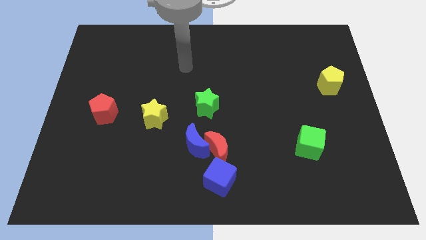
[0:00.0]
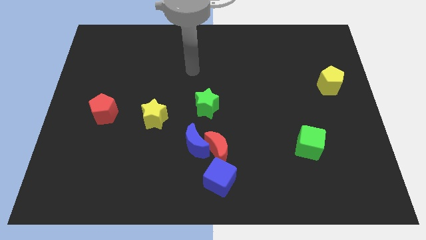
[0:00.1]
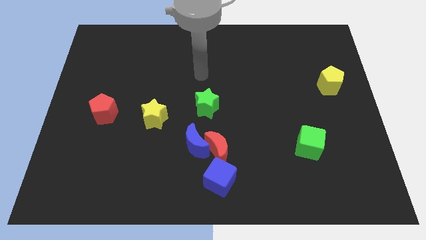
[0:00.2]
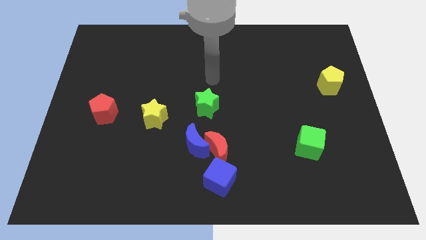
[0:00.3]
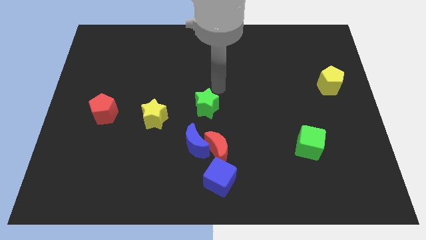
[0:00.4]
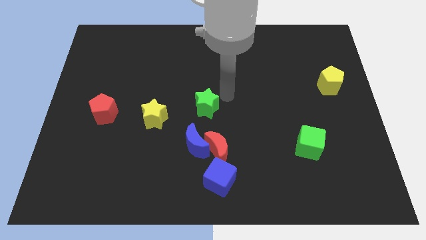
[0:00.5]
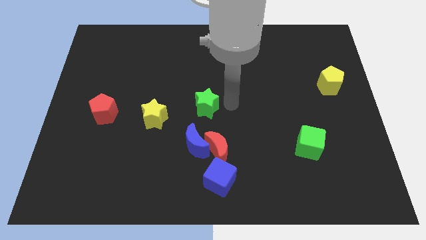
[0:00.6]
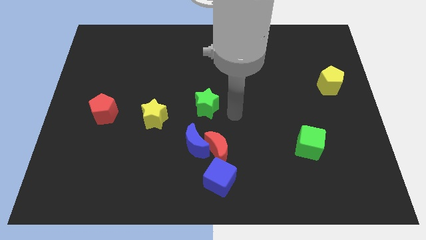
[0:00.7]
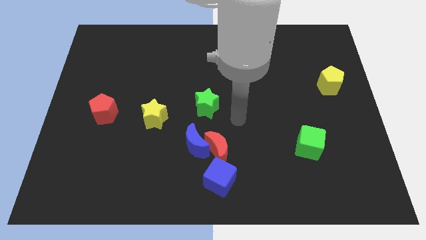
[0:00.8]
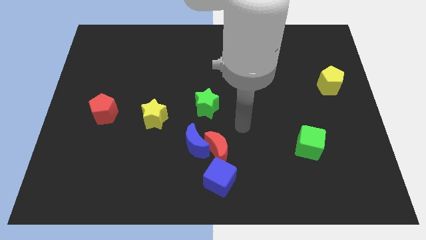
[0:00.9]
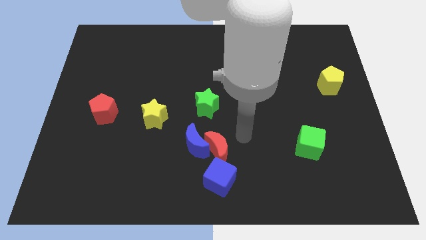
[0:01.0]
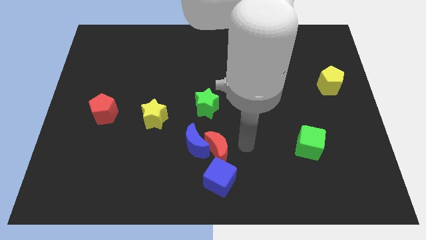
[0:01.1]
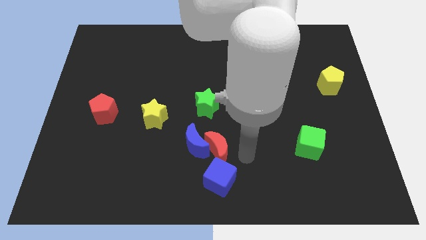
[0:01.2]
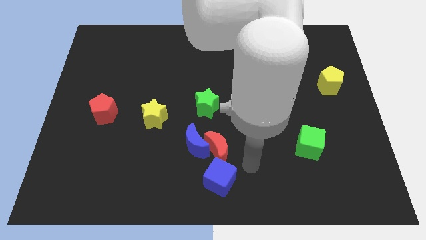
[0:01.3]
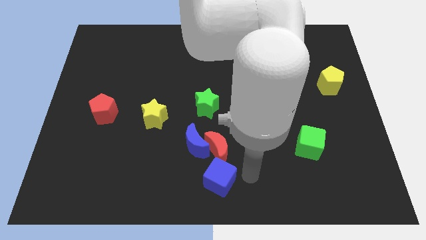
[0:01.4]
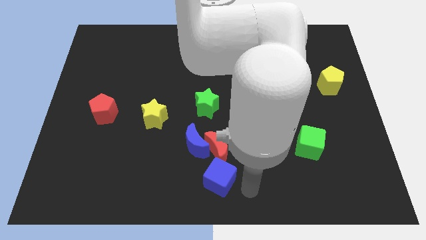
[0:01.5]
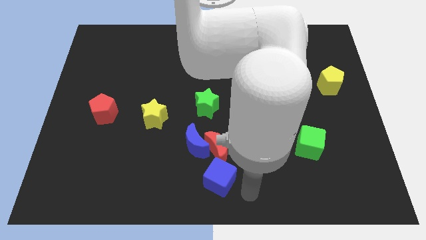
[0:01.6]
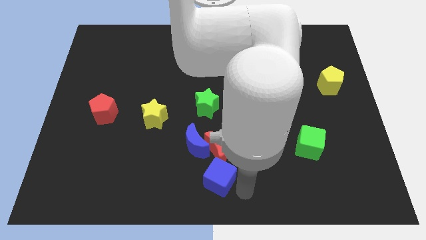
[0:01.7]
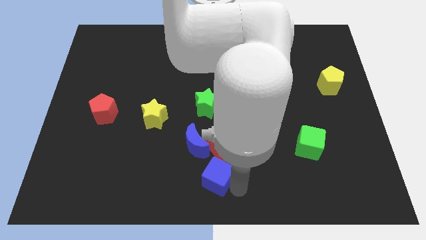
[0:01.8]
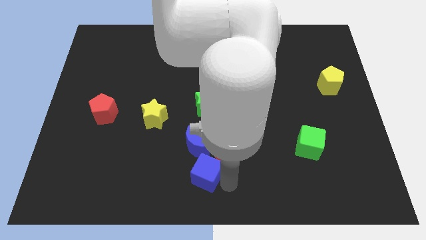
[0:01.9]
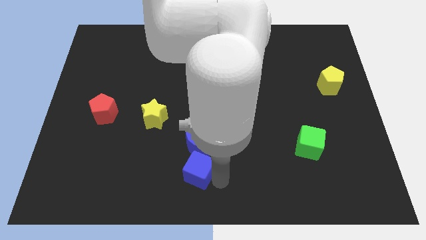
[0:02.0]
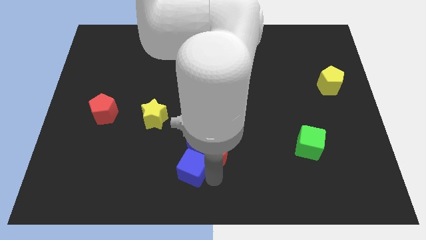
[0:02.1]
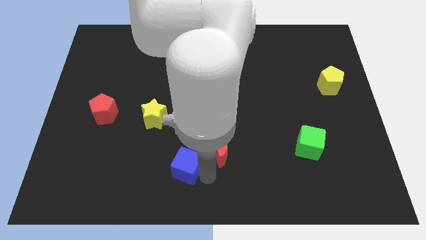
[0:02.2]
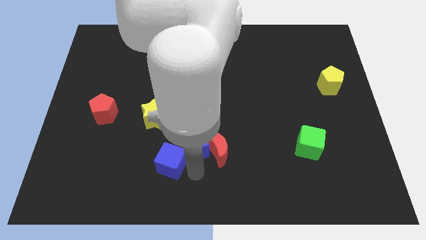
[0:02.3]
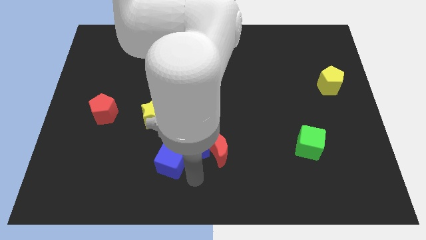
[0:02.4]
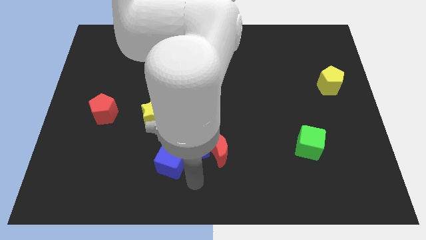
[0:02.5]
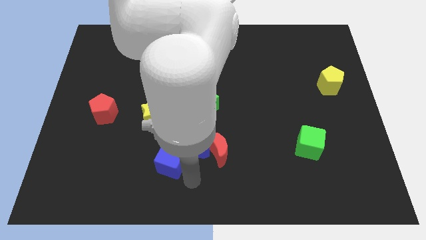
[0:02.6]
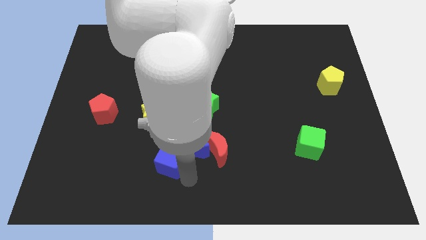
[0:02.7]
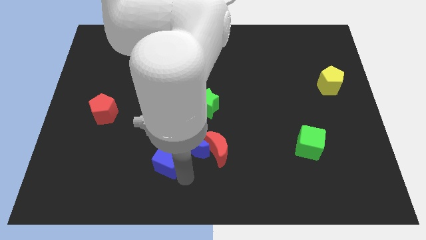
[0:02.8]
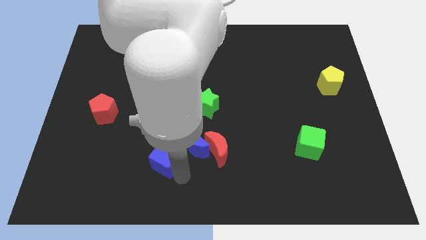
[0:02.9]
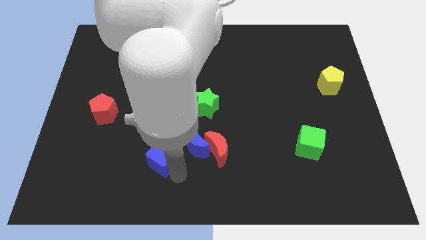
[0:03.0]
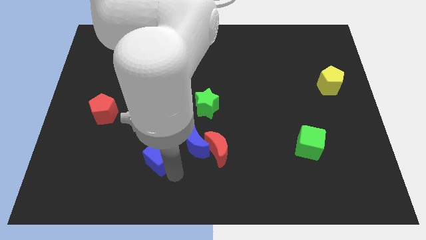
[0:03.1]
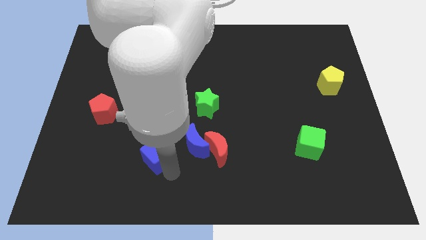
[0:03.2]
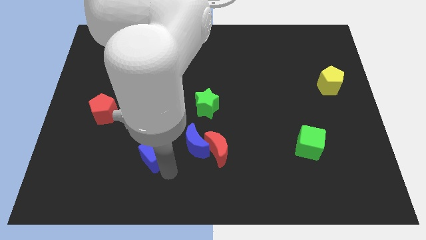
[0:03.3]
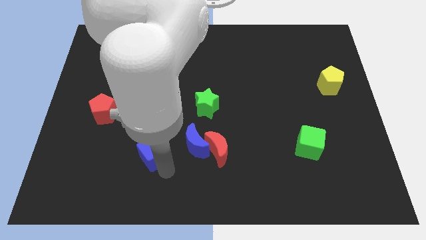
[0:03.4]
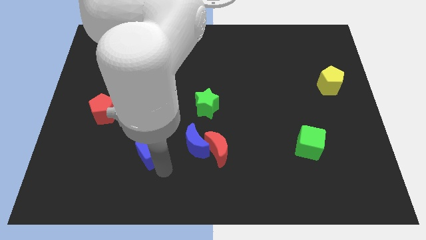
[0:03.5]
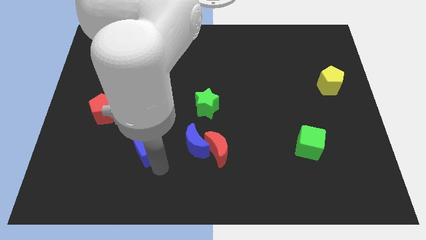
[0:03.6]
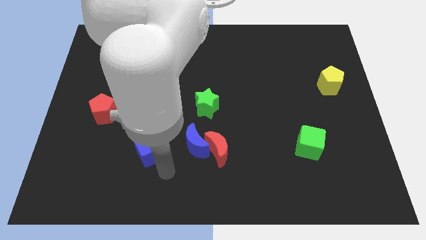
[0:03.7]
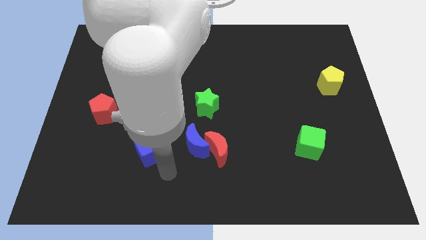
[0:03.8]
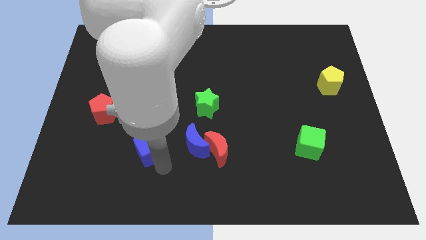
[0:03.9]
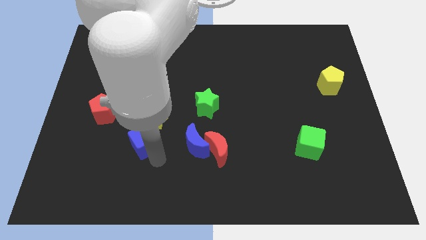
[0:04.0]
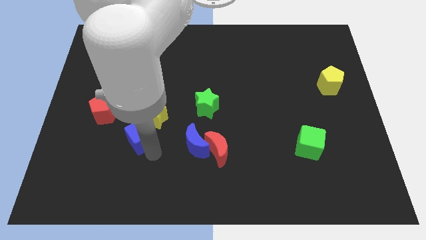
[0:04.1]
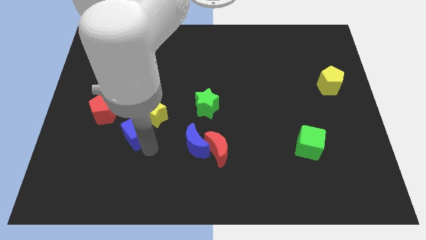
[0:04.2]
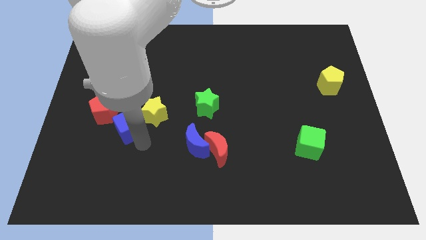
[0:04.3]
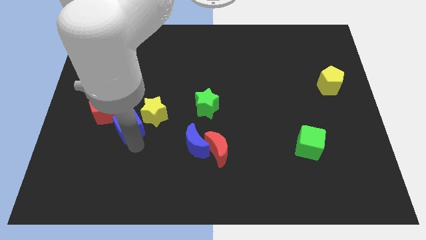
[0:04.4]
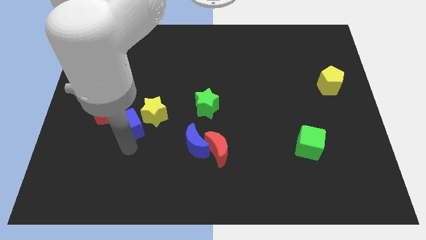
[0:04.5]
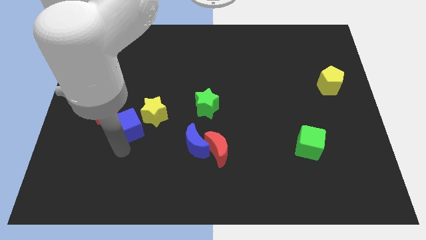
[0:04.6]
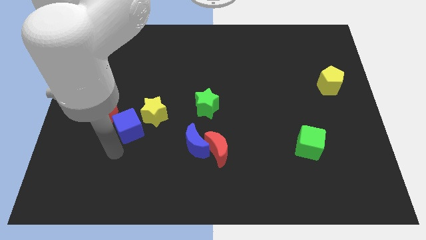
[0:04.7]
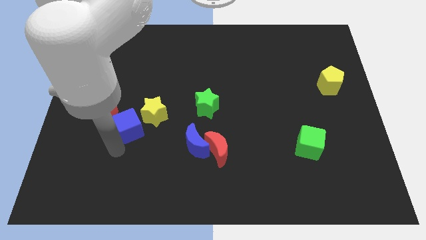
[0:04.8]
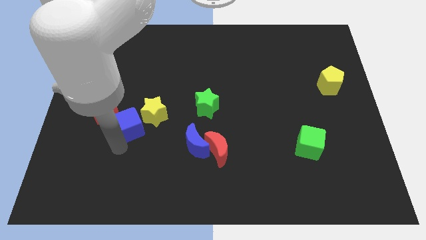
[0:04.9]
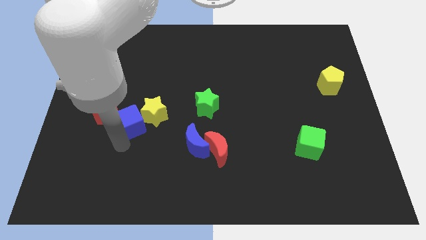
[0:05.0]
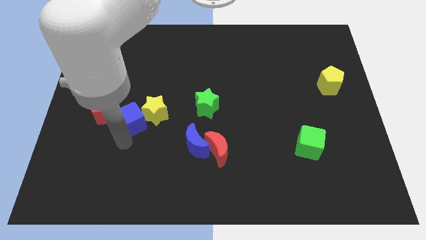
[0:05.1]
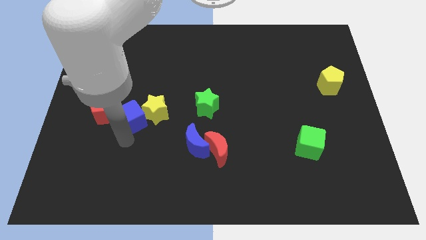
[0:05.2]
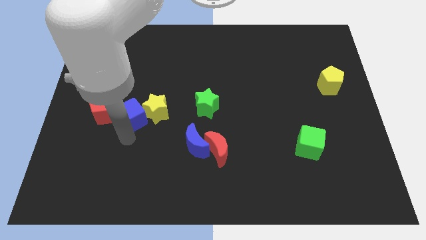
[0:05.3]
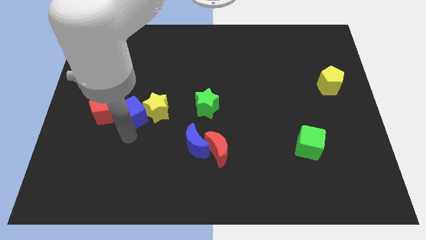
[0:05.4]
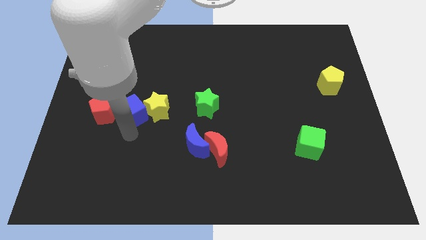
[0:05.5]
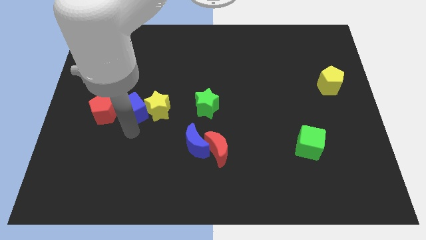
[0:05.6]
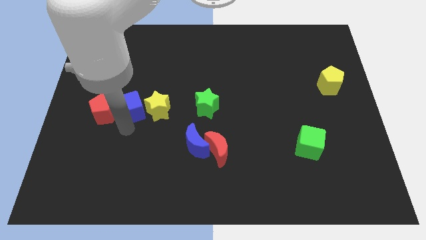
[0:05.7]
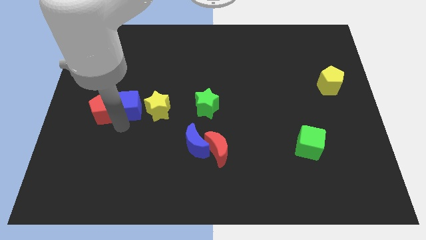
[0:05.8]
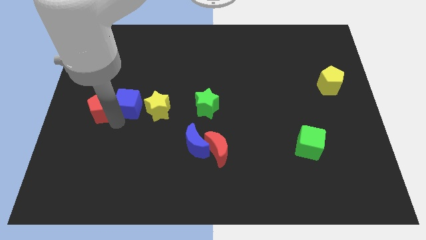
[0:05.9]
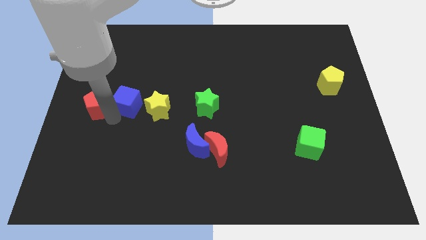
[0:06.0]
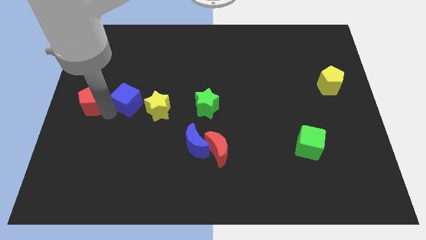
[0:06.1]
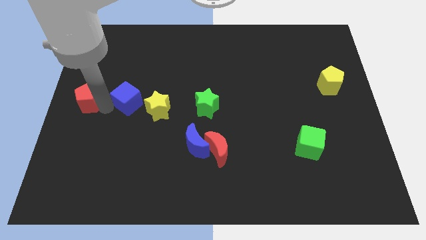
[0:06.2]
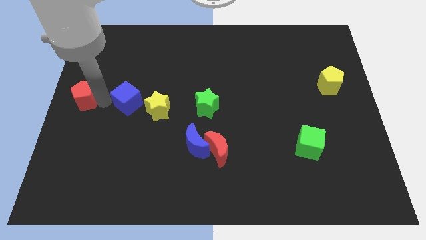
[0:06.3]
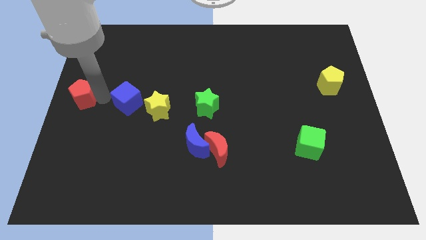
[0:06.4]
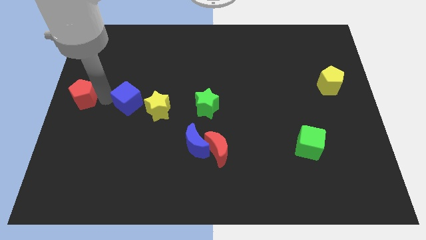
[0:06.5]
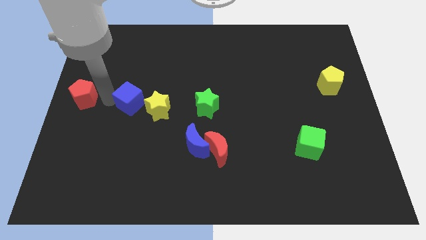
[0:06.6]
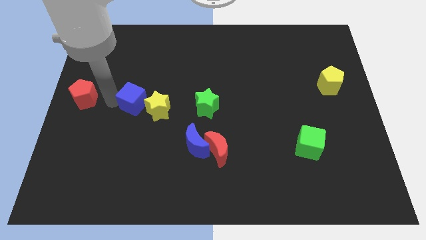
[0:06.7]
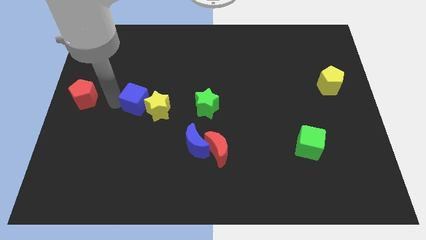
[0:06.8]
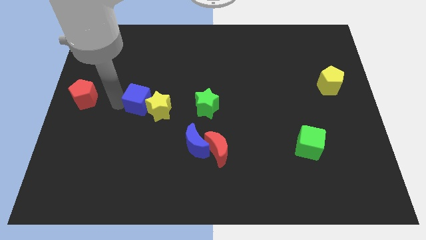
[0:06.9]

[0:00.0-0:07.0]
move the blue cube to the left of the green star
